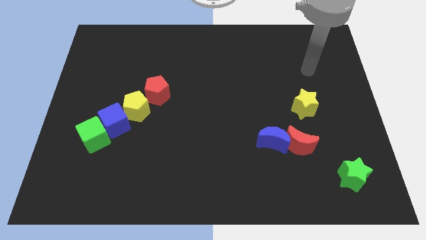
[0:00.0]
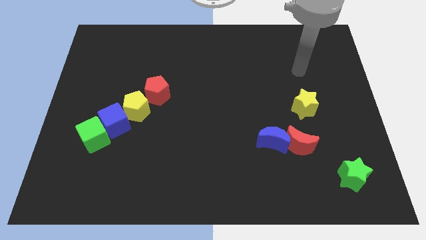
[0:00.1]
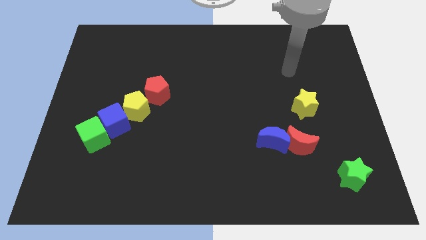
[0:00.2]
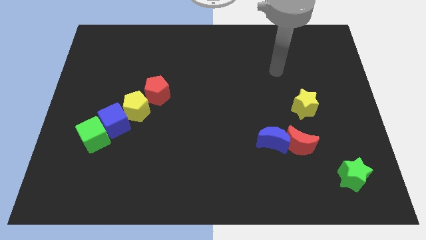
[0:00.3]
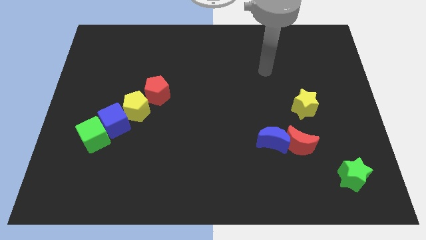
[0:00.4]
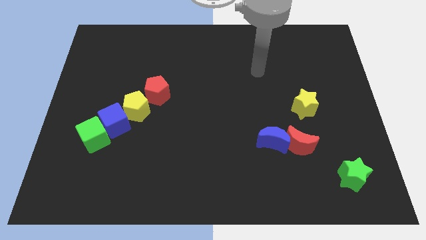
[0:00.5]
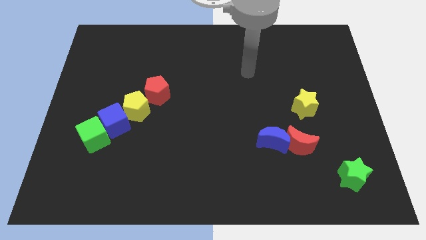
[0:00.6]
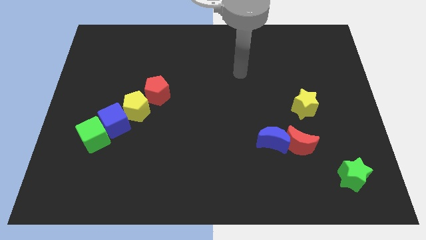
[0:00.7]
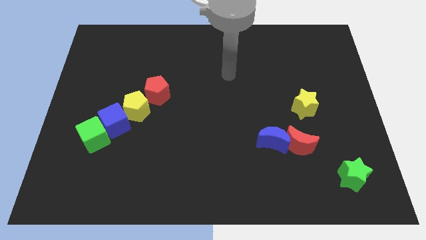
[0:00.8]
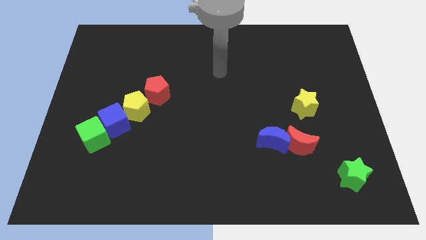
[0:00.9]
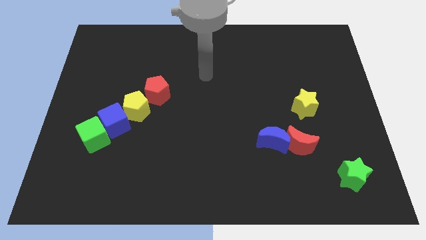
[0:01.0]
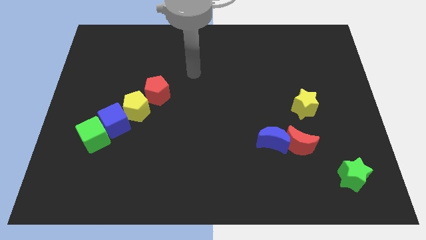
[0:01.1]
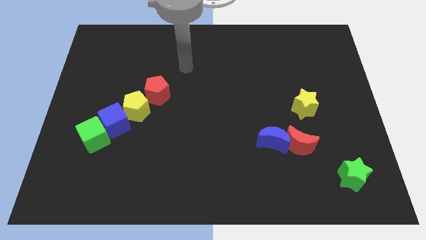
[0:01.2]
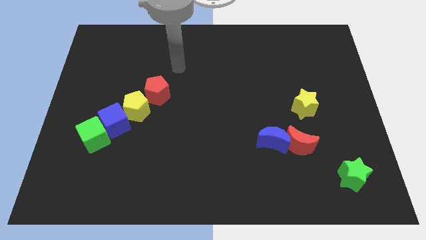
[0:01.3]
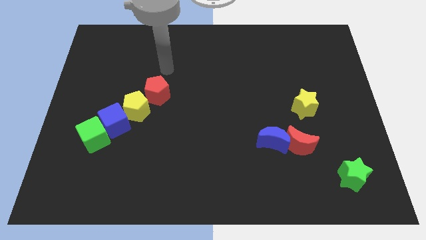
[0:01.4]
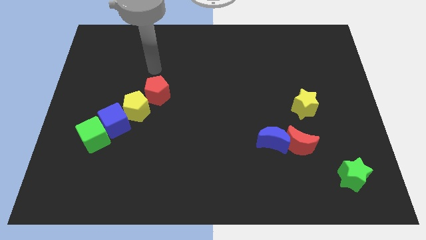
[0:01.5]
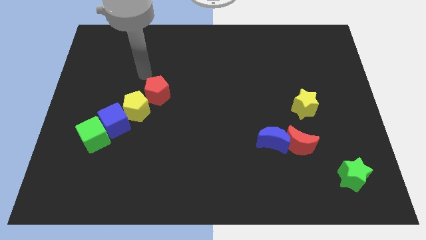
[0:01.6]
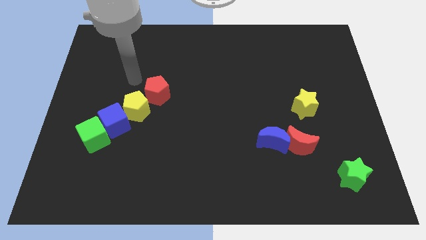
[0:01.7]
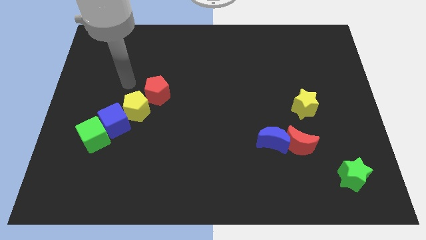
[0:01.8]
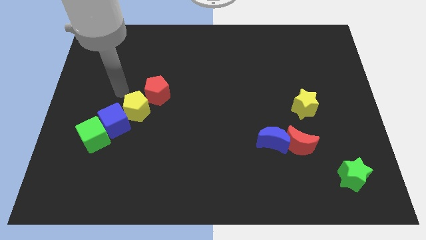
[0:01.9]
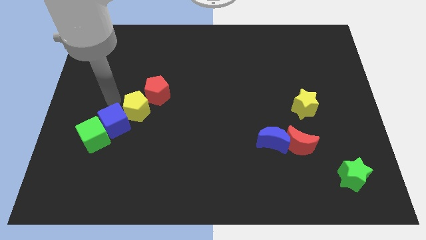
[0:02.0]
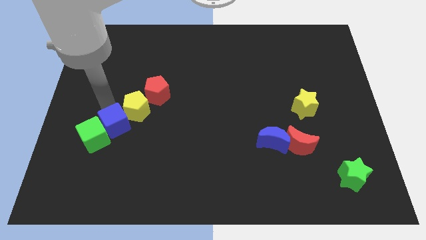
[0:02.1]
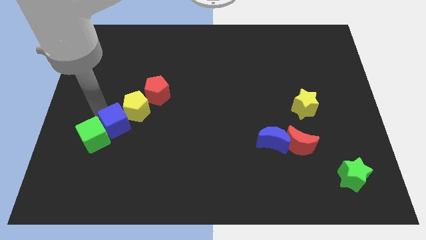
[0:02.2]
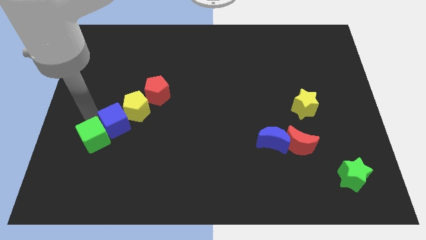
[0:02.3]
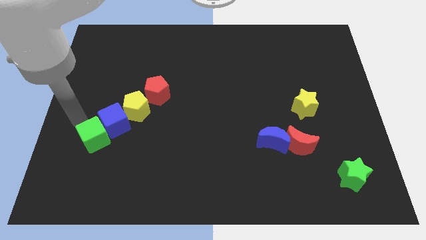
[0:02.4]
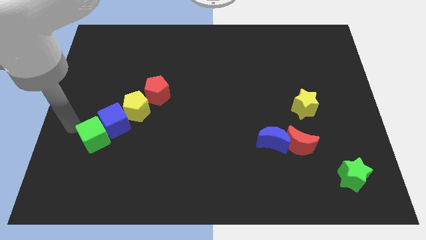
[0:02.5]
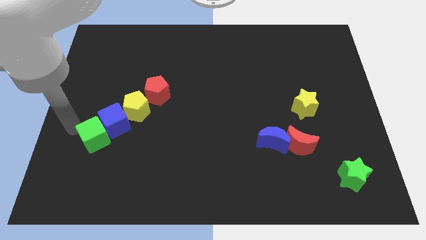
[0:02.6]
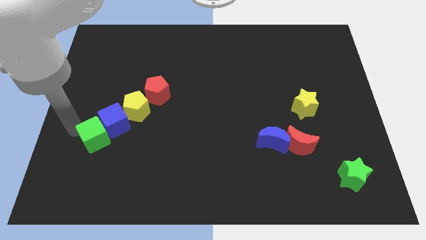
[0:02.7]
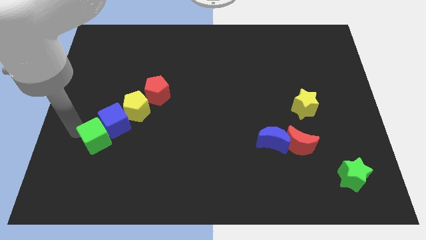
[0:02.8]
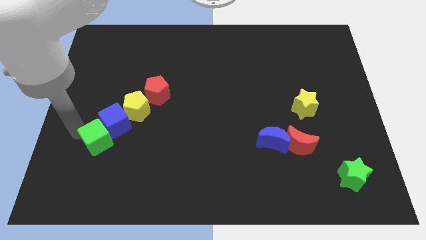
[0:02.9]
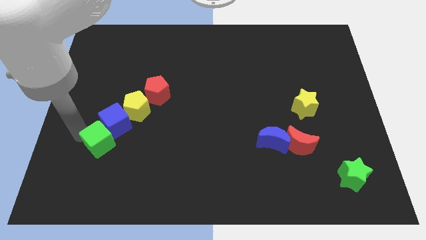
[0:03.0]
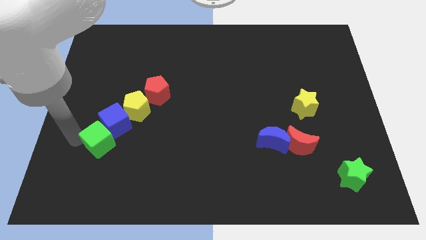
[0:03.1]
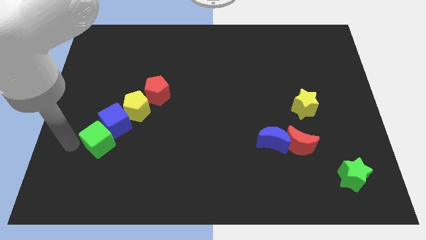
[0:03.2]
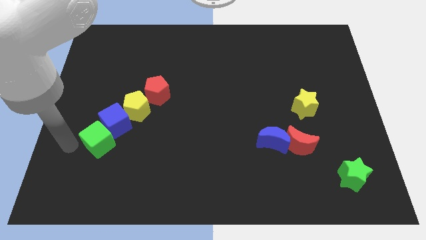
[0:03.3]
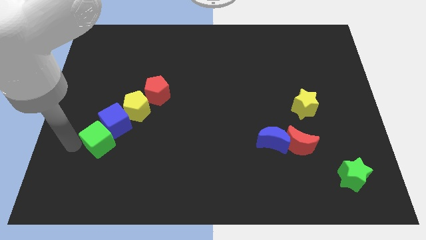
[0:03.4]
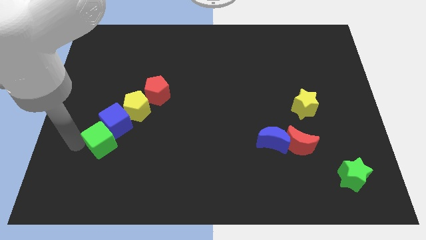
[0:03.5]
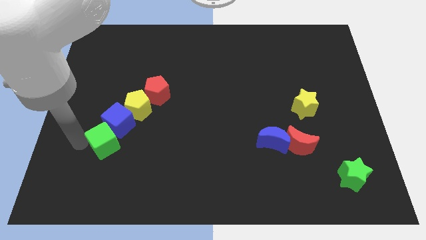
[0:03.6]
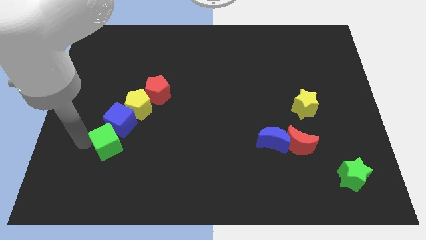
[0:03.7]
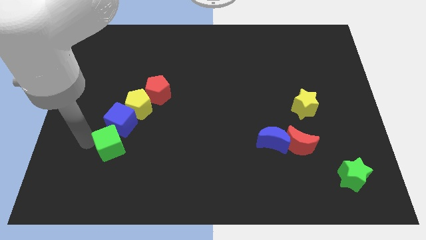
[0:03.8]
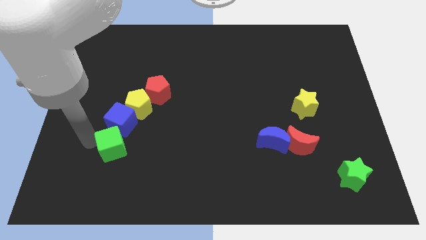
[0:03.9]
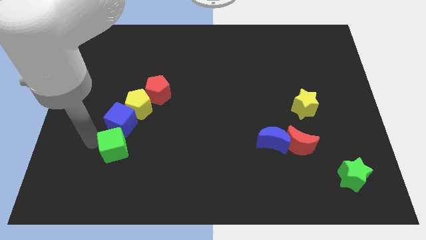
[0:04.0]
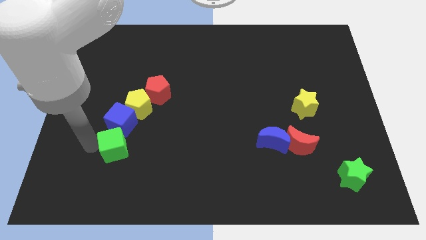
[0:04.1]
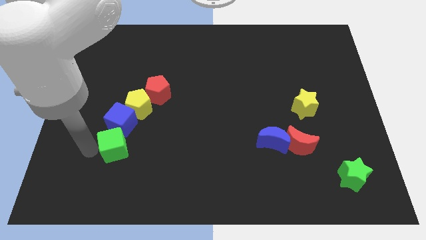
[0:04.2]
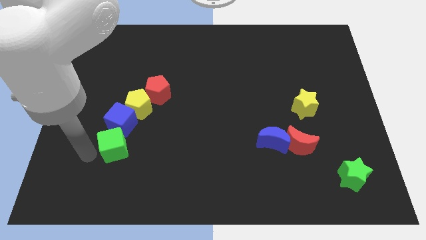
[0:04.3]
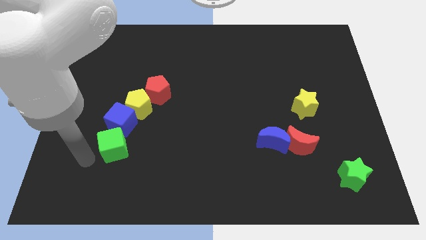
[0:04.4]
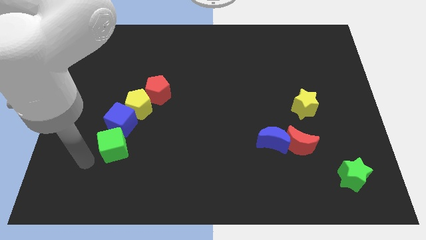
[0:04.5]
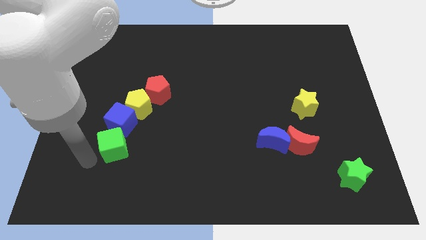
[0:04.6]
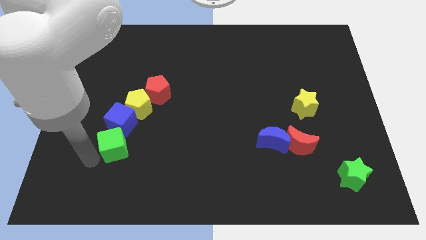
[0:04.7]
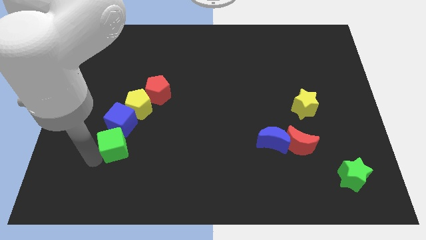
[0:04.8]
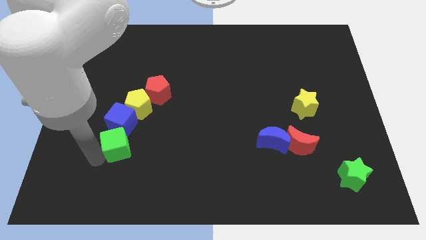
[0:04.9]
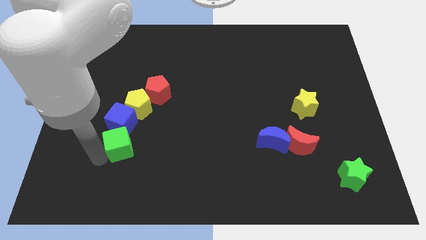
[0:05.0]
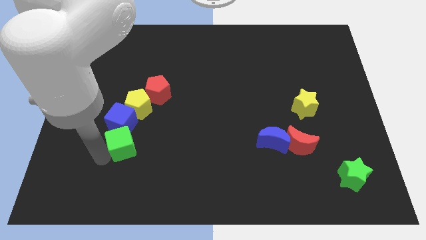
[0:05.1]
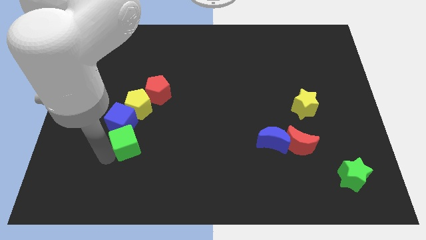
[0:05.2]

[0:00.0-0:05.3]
slide the green cube somewhat to the right

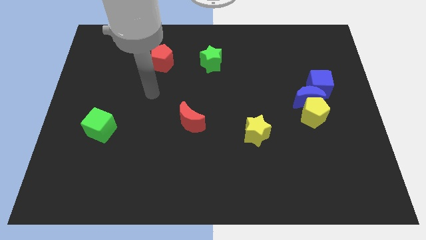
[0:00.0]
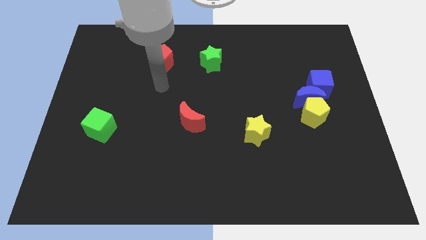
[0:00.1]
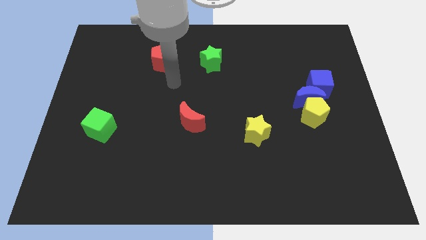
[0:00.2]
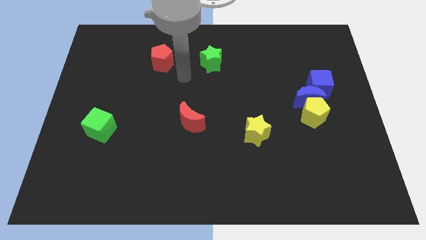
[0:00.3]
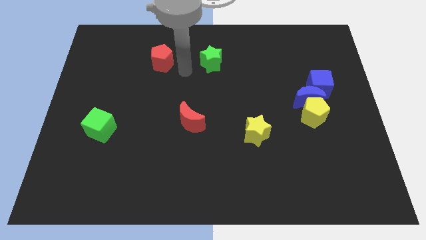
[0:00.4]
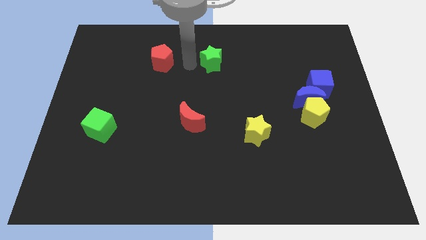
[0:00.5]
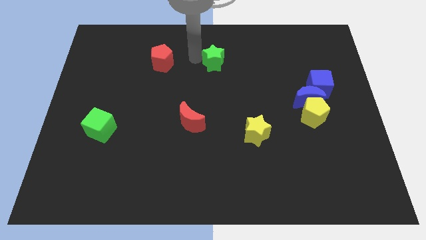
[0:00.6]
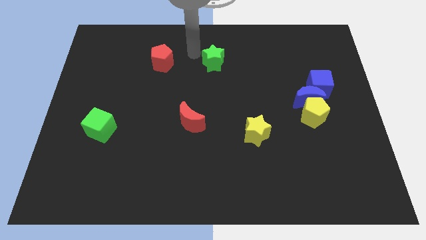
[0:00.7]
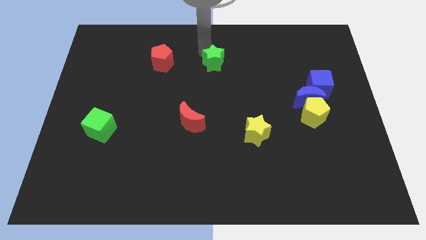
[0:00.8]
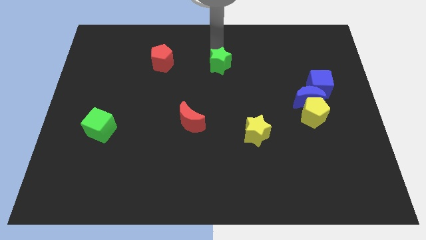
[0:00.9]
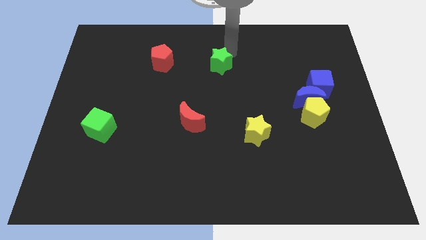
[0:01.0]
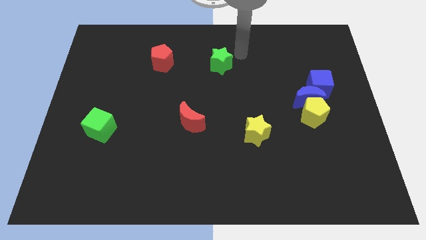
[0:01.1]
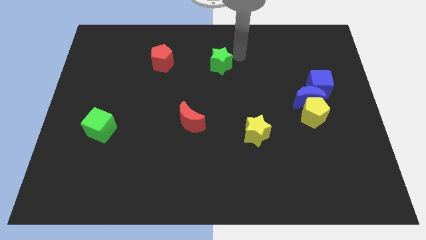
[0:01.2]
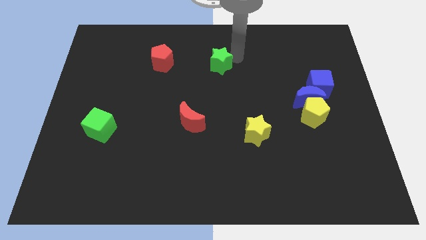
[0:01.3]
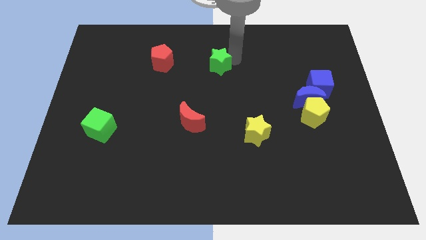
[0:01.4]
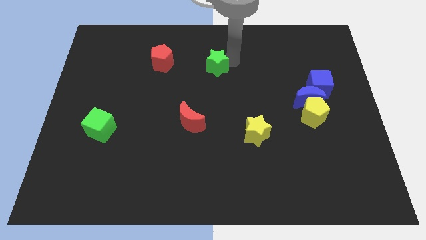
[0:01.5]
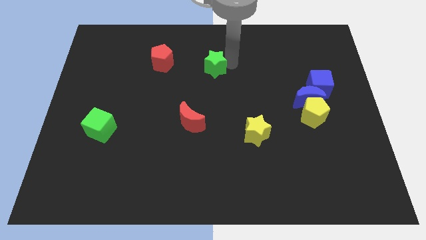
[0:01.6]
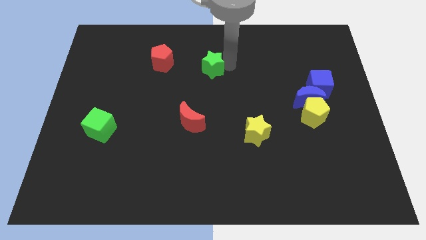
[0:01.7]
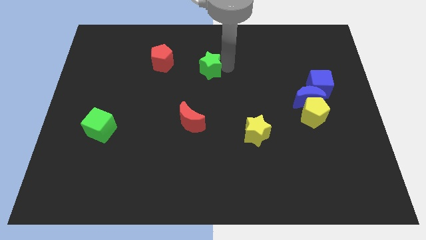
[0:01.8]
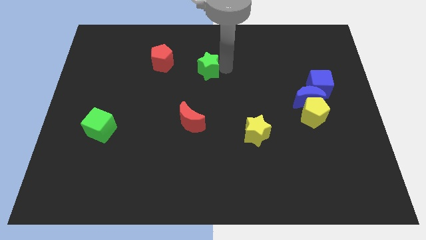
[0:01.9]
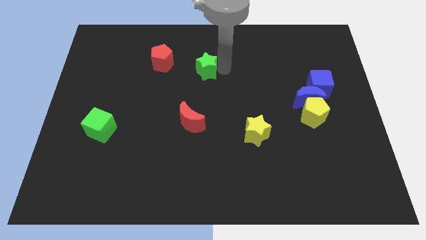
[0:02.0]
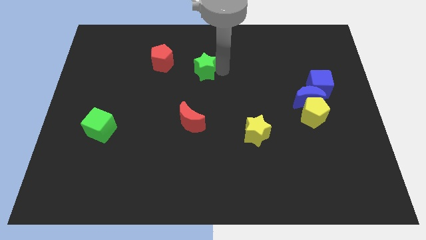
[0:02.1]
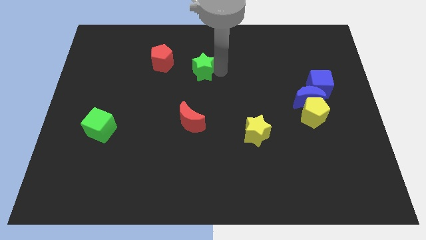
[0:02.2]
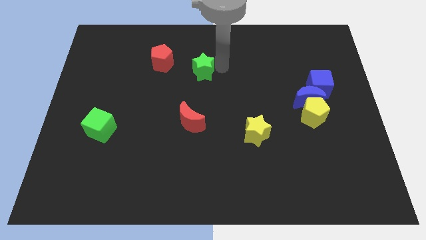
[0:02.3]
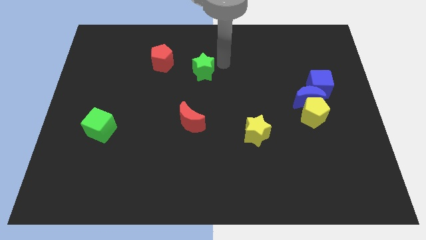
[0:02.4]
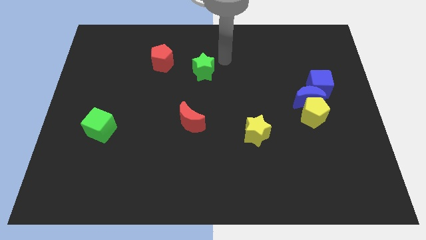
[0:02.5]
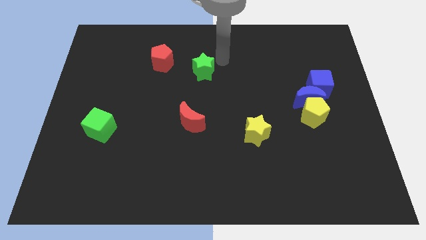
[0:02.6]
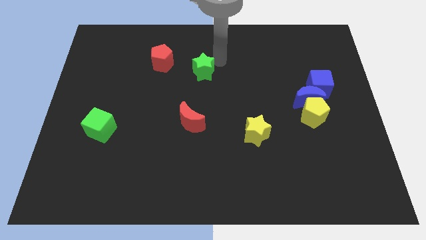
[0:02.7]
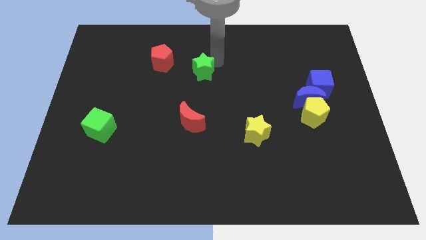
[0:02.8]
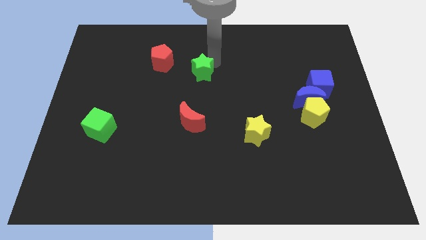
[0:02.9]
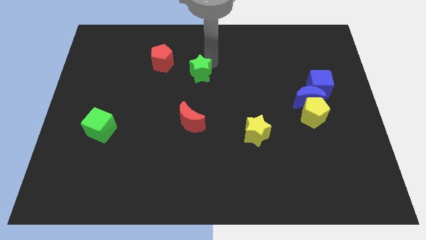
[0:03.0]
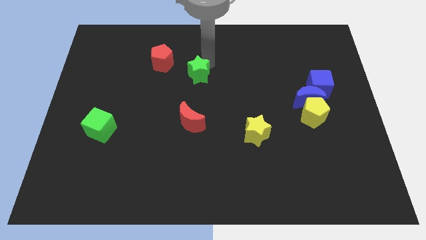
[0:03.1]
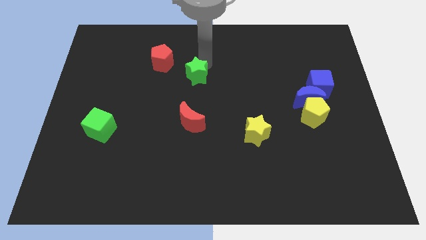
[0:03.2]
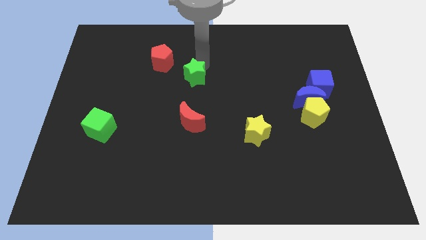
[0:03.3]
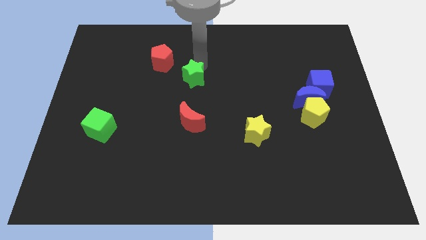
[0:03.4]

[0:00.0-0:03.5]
move the green star downwards and then to the left somewhat
